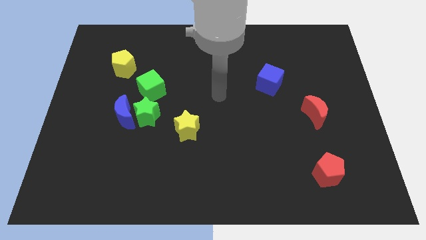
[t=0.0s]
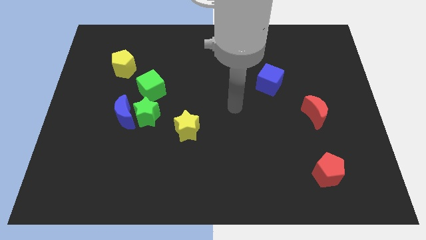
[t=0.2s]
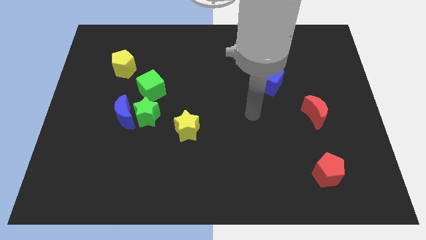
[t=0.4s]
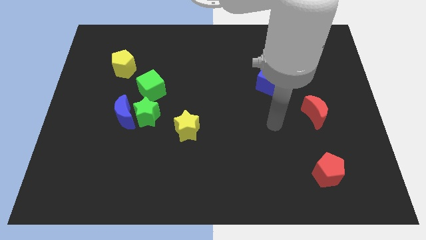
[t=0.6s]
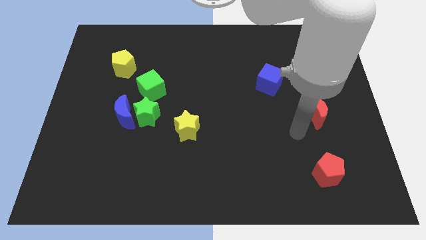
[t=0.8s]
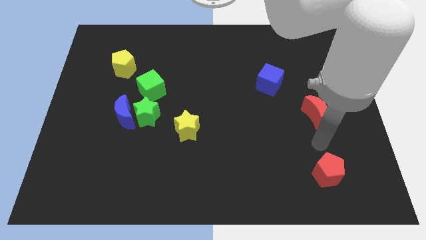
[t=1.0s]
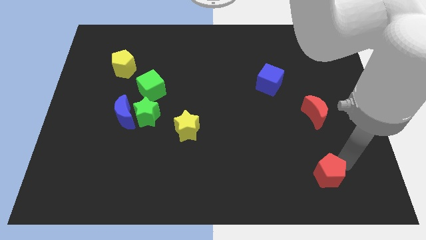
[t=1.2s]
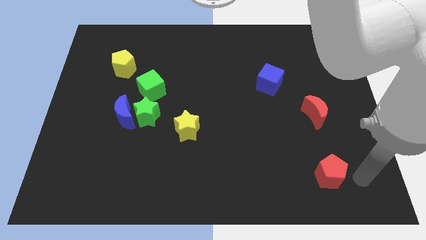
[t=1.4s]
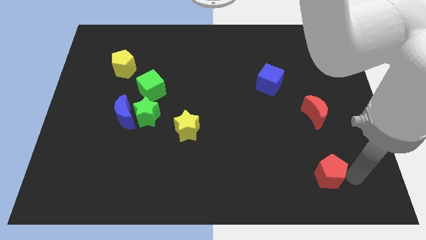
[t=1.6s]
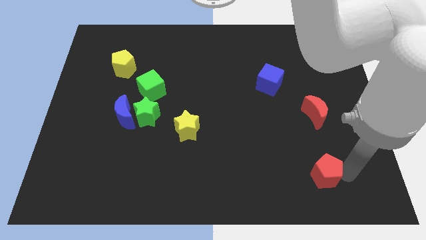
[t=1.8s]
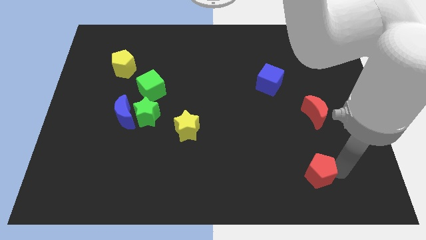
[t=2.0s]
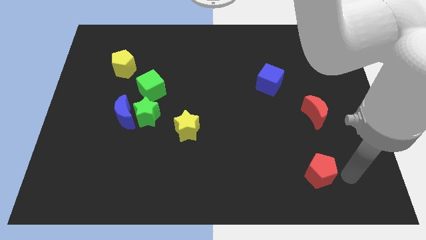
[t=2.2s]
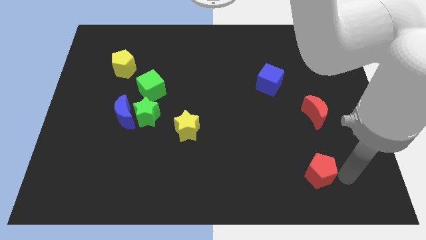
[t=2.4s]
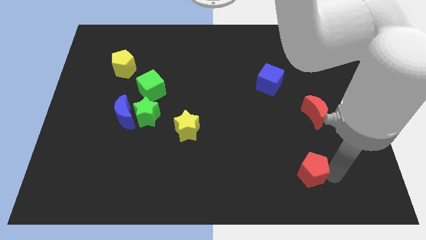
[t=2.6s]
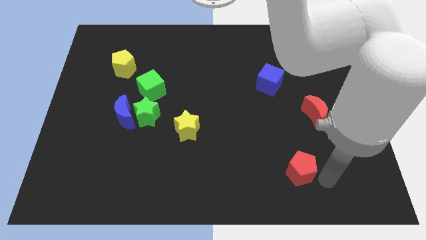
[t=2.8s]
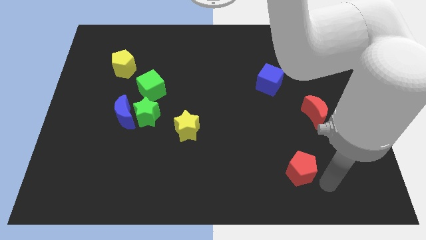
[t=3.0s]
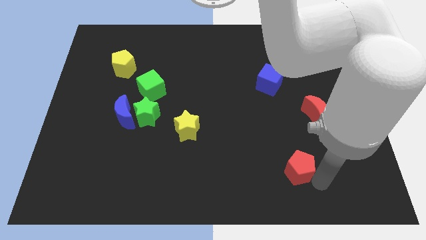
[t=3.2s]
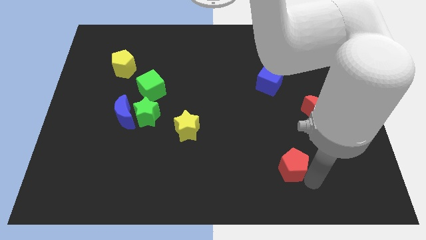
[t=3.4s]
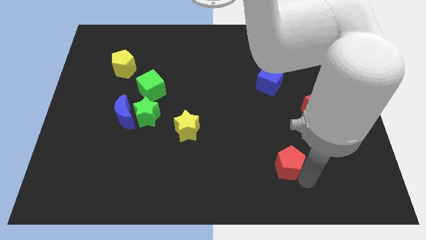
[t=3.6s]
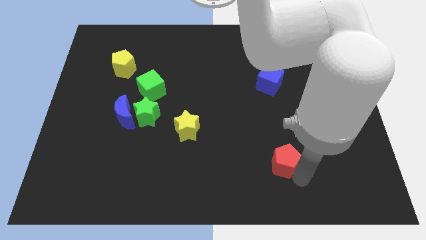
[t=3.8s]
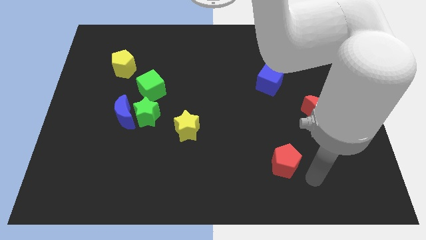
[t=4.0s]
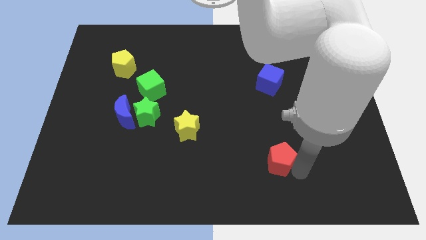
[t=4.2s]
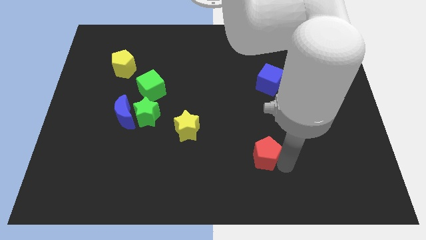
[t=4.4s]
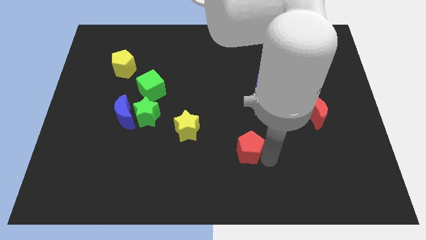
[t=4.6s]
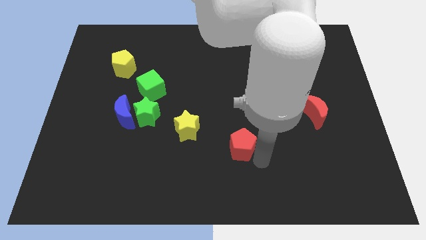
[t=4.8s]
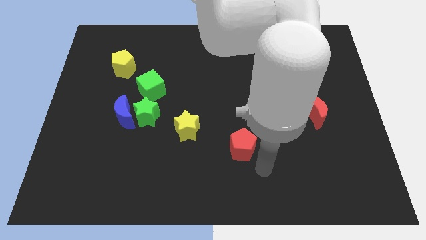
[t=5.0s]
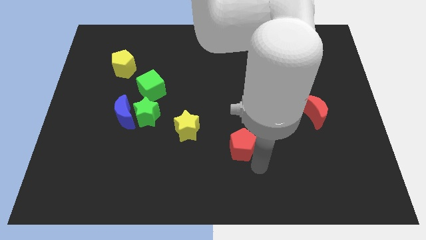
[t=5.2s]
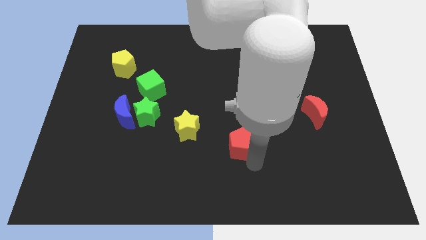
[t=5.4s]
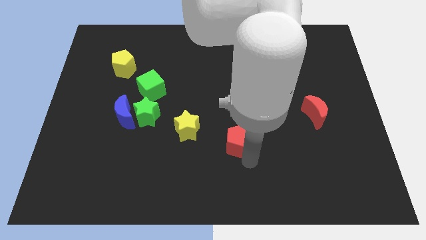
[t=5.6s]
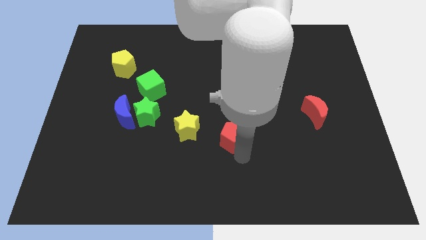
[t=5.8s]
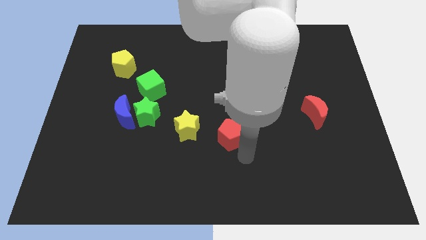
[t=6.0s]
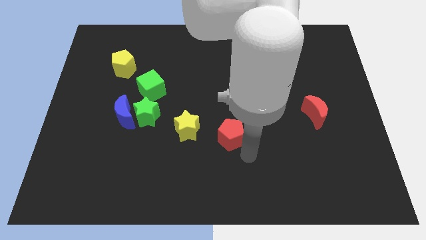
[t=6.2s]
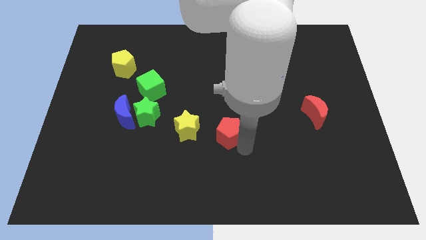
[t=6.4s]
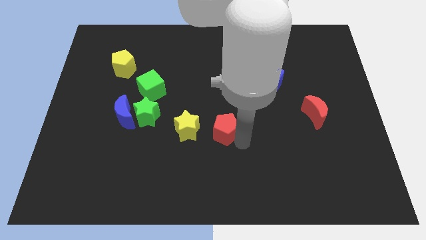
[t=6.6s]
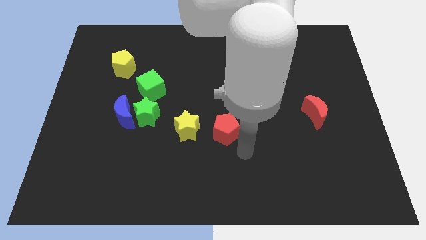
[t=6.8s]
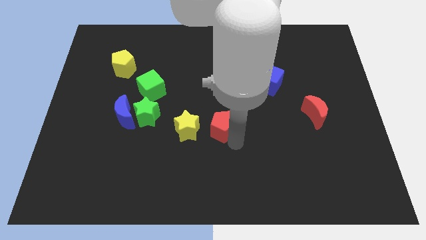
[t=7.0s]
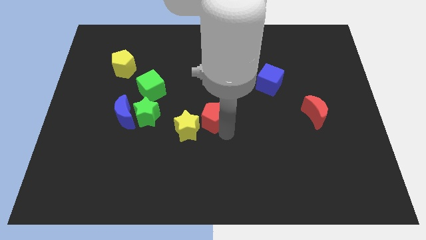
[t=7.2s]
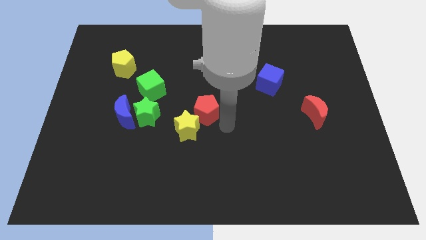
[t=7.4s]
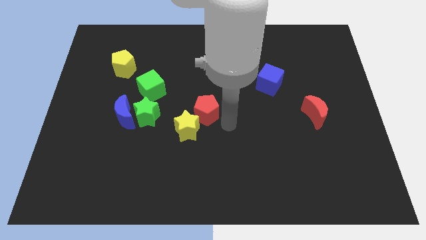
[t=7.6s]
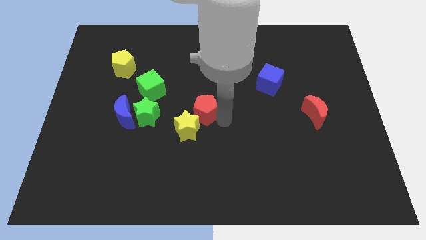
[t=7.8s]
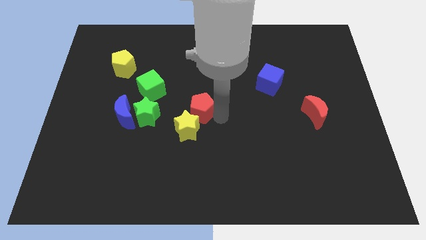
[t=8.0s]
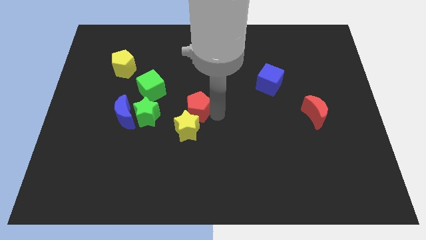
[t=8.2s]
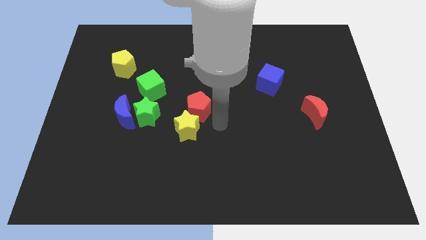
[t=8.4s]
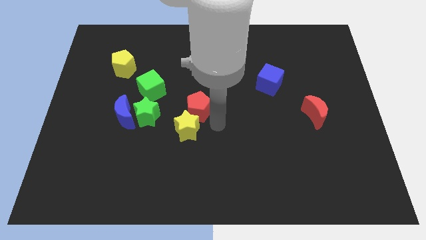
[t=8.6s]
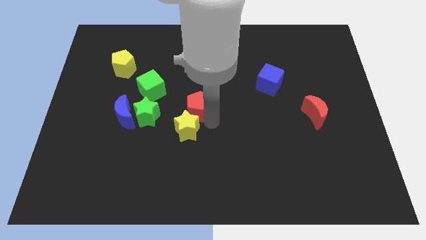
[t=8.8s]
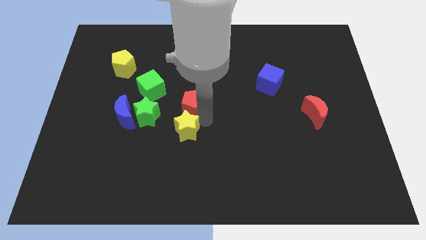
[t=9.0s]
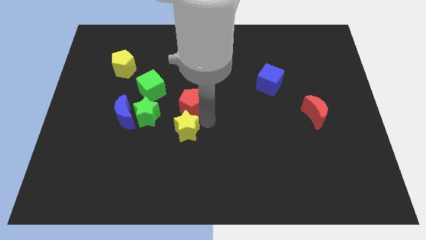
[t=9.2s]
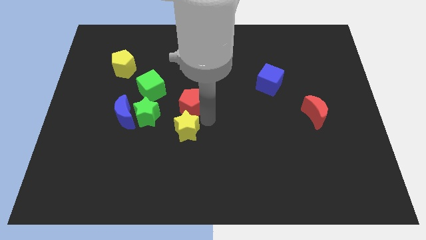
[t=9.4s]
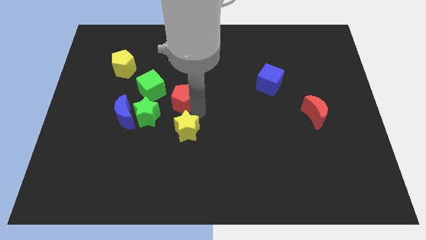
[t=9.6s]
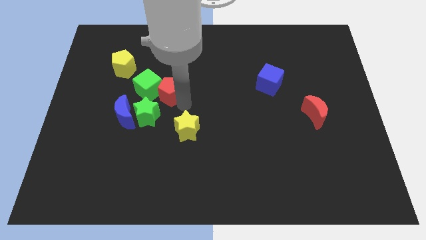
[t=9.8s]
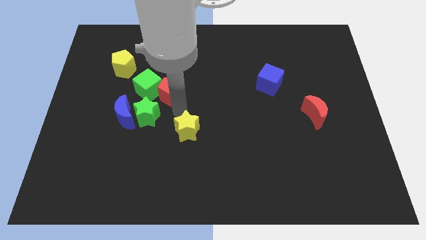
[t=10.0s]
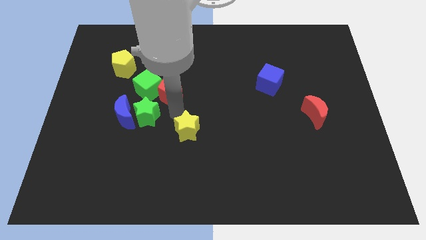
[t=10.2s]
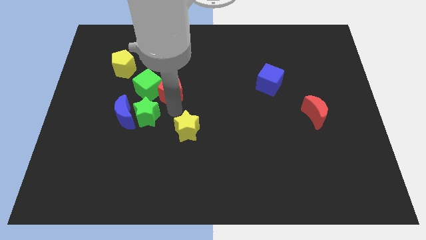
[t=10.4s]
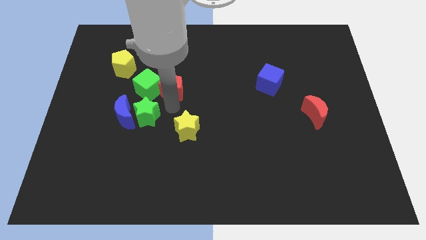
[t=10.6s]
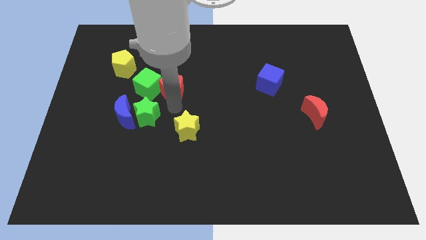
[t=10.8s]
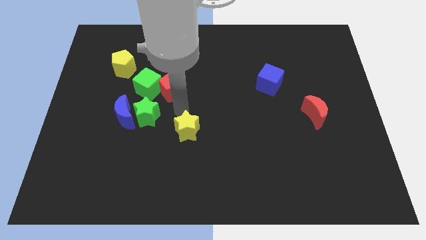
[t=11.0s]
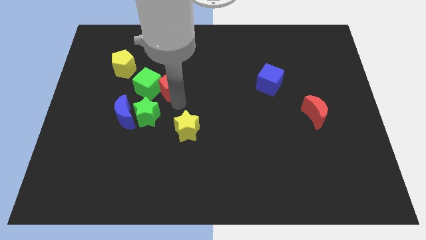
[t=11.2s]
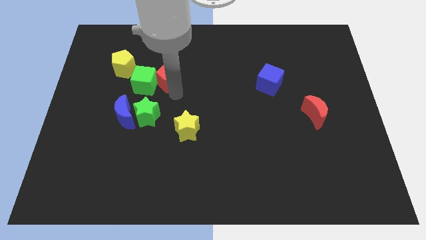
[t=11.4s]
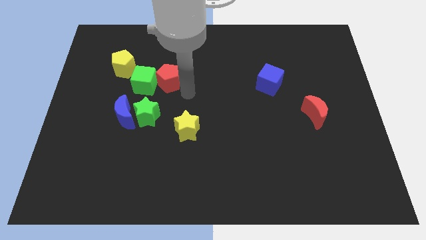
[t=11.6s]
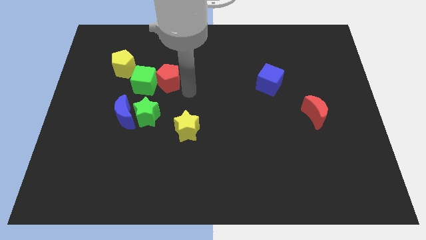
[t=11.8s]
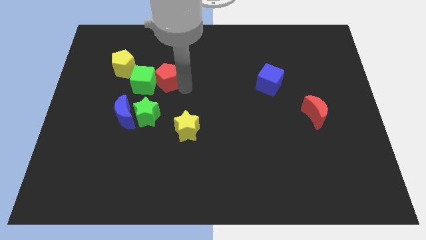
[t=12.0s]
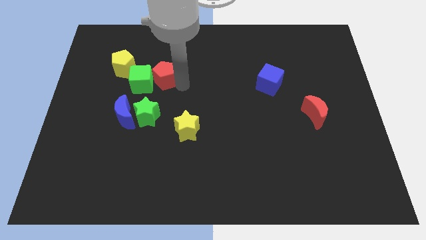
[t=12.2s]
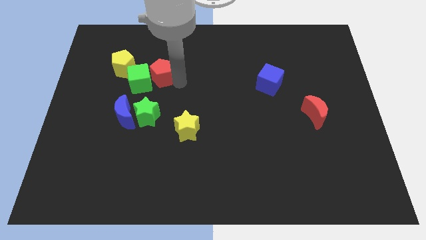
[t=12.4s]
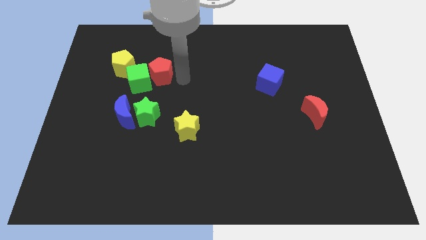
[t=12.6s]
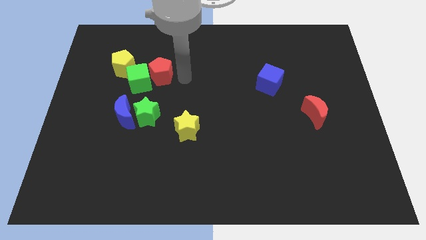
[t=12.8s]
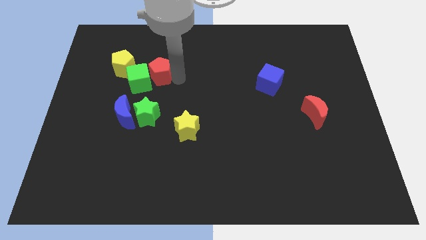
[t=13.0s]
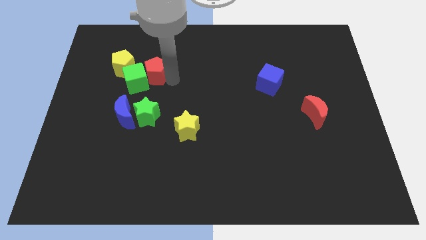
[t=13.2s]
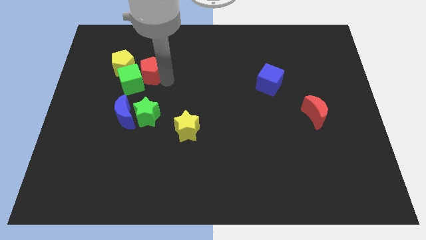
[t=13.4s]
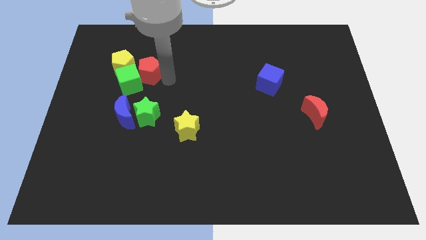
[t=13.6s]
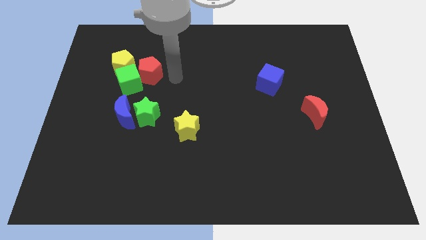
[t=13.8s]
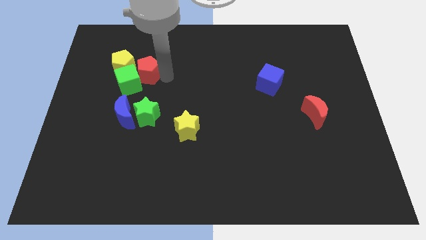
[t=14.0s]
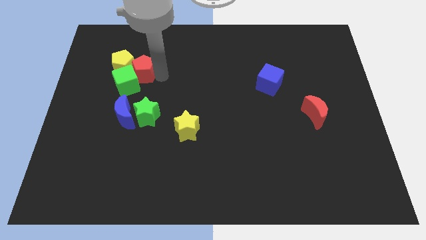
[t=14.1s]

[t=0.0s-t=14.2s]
push the red pentagon towards the yellow pentagon

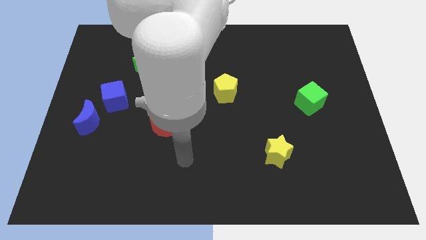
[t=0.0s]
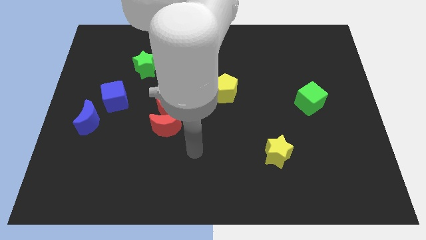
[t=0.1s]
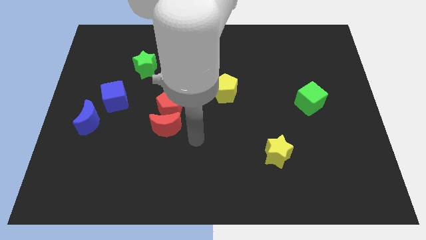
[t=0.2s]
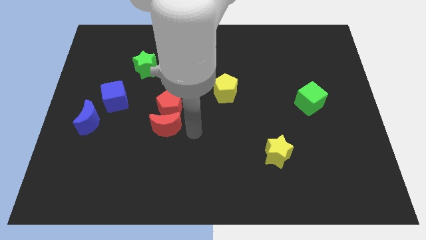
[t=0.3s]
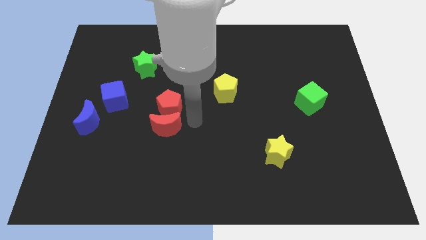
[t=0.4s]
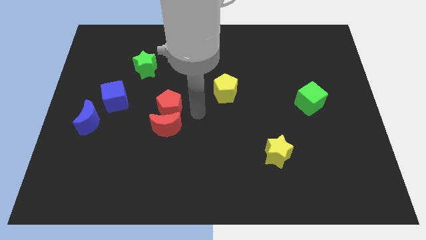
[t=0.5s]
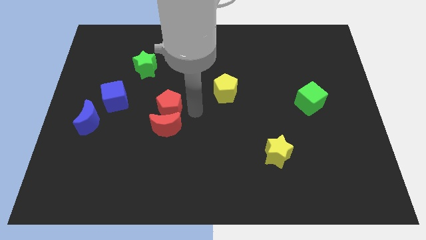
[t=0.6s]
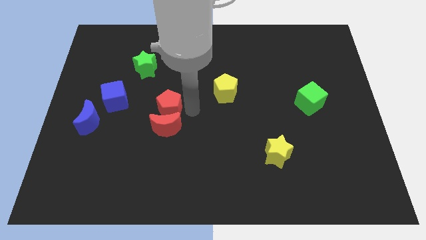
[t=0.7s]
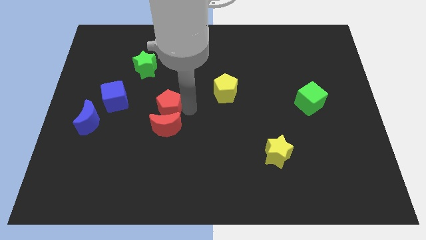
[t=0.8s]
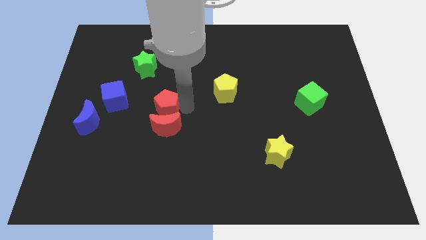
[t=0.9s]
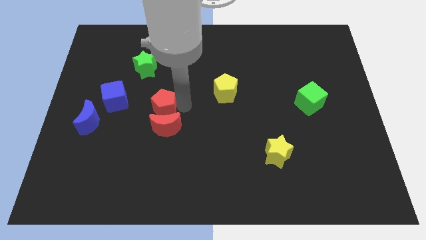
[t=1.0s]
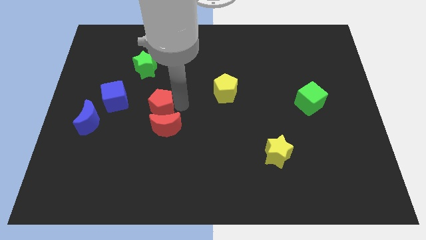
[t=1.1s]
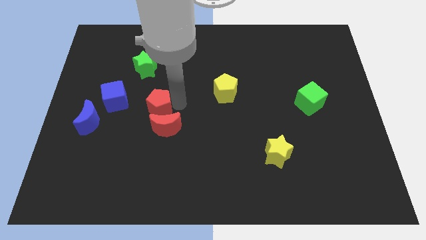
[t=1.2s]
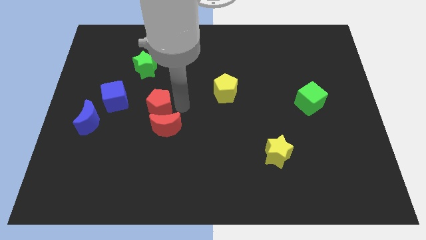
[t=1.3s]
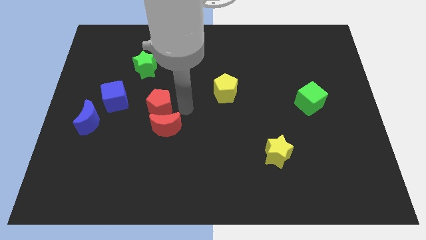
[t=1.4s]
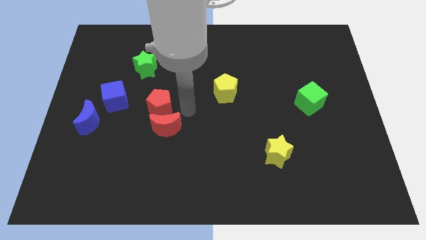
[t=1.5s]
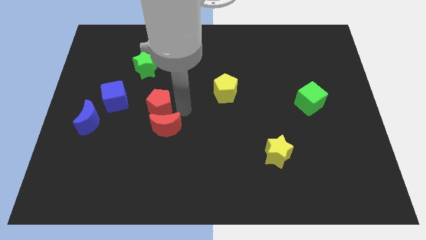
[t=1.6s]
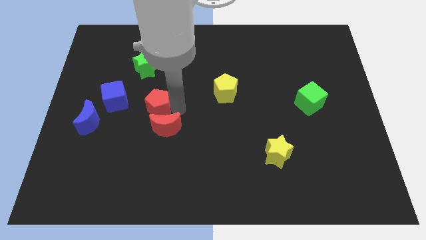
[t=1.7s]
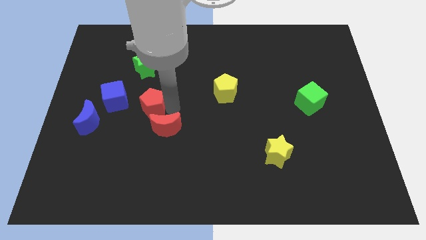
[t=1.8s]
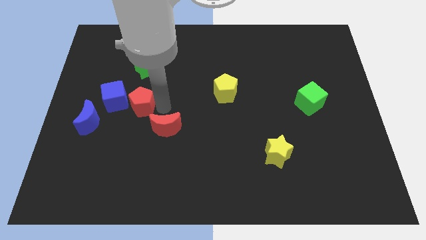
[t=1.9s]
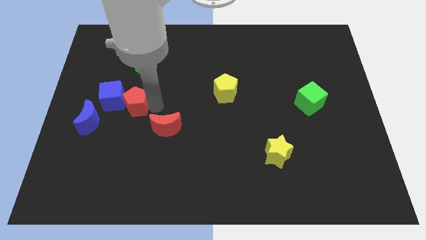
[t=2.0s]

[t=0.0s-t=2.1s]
move the red pentagon next to the blue cube
